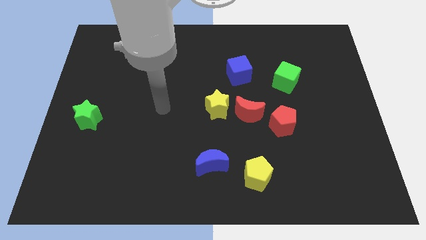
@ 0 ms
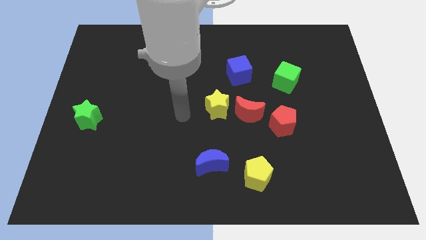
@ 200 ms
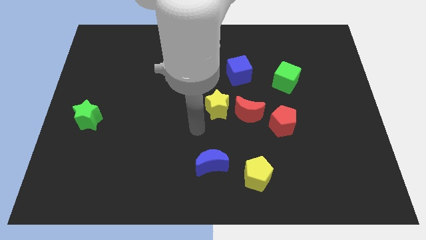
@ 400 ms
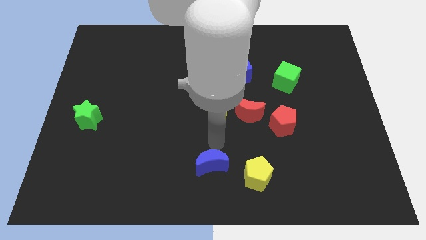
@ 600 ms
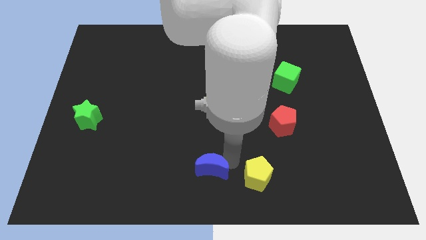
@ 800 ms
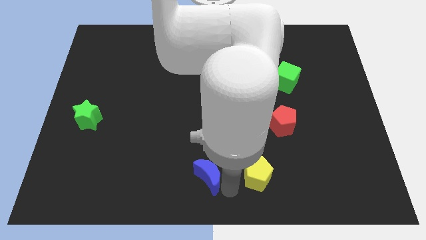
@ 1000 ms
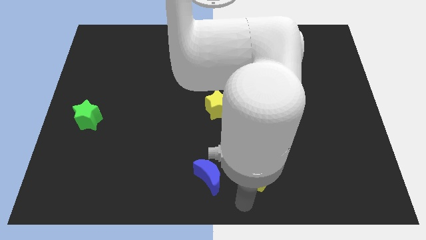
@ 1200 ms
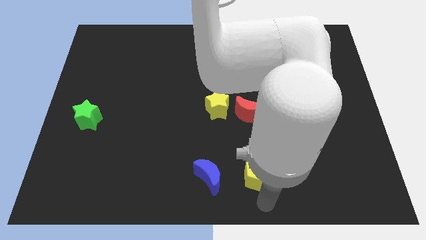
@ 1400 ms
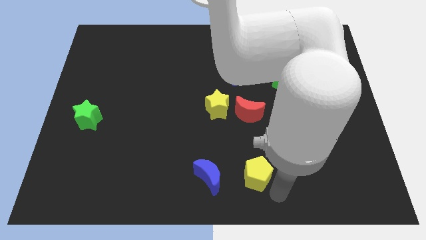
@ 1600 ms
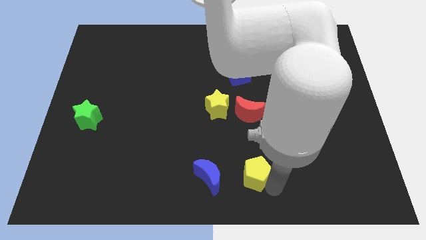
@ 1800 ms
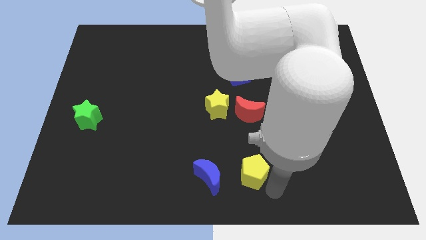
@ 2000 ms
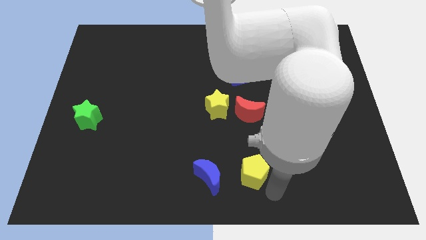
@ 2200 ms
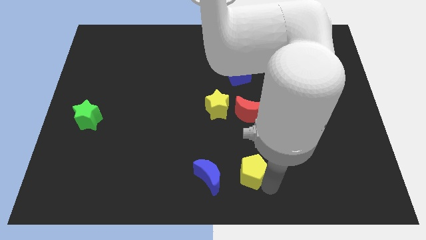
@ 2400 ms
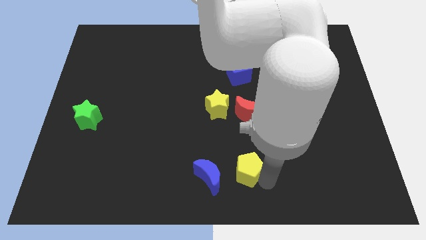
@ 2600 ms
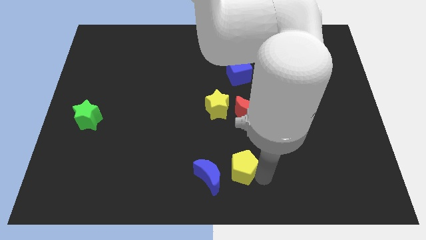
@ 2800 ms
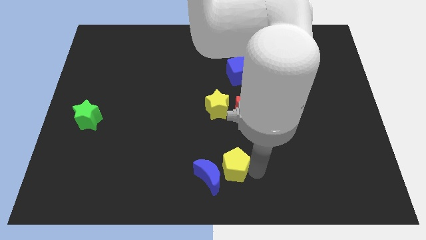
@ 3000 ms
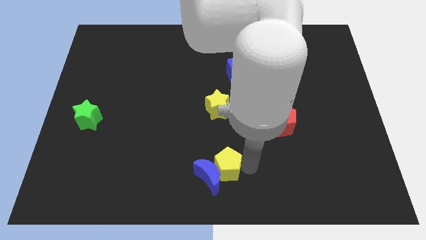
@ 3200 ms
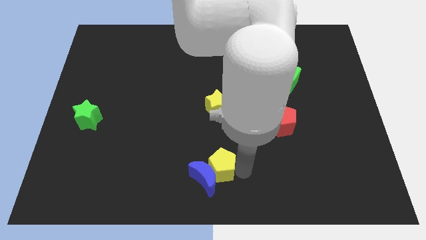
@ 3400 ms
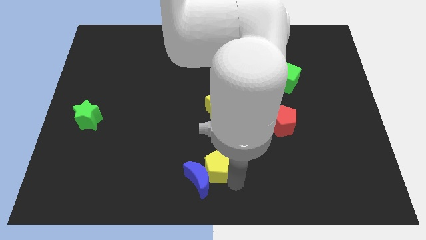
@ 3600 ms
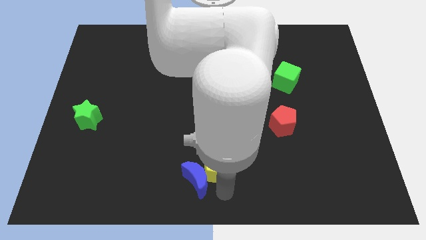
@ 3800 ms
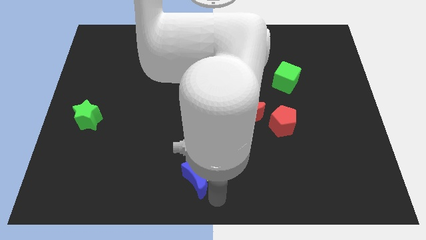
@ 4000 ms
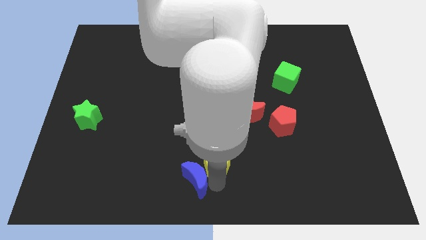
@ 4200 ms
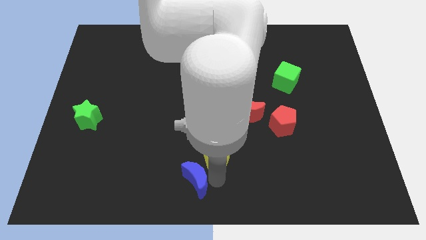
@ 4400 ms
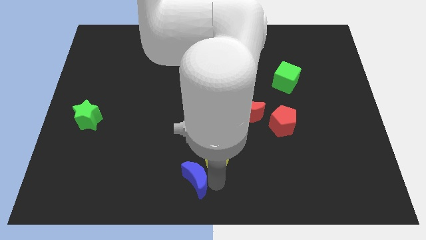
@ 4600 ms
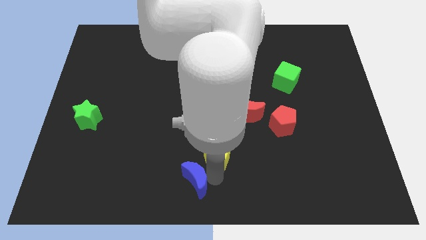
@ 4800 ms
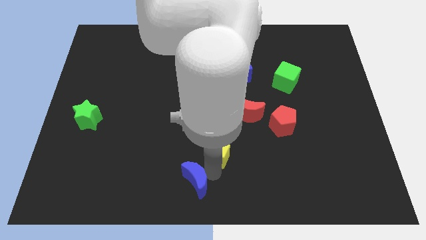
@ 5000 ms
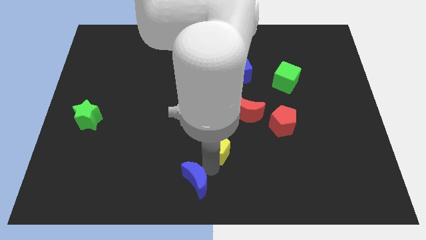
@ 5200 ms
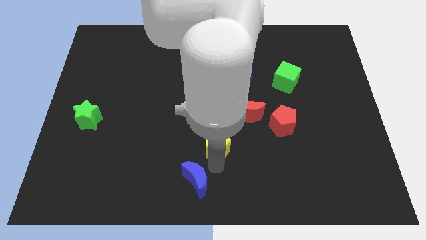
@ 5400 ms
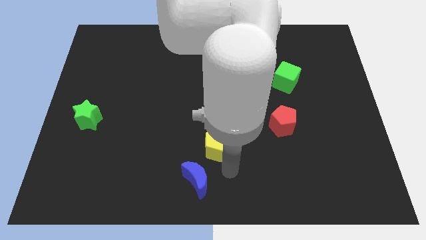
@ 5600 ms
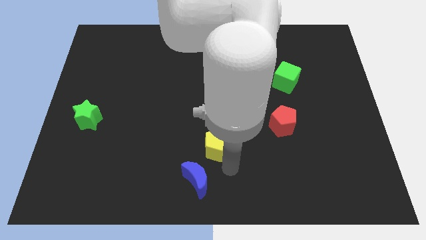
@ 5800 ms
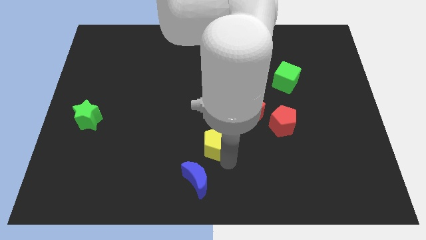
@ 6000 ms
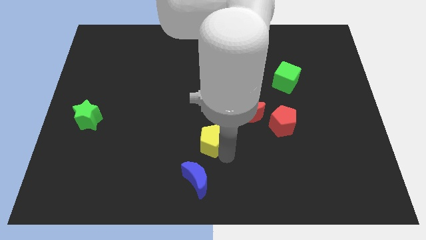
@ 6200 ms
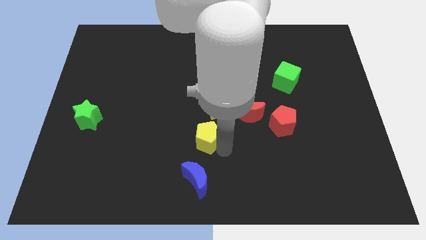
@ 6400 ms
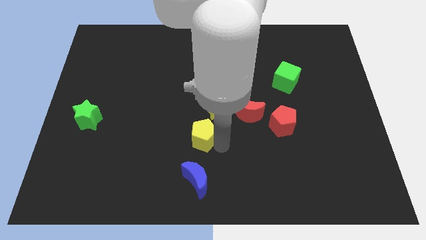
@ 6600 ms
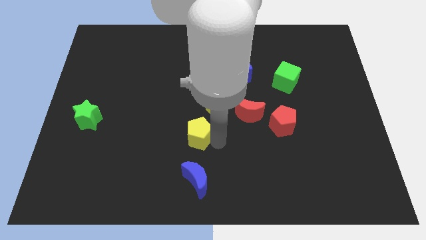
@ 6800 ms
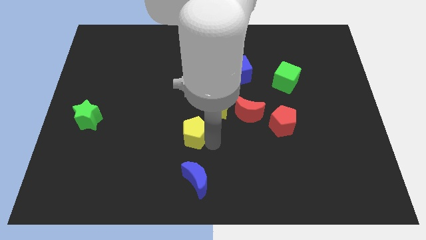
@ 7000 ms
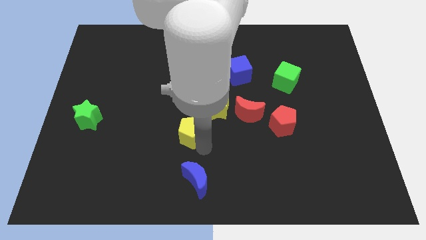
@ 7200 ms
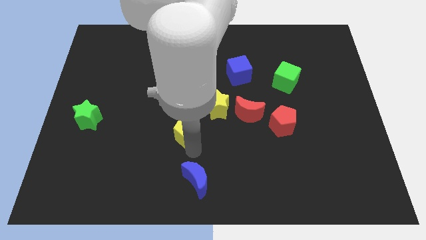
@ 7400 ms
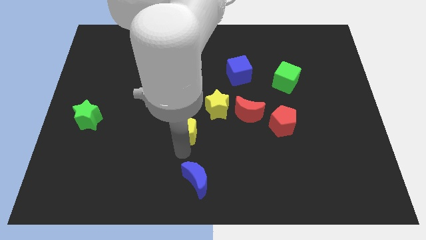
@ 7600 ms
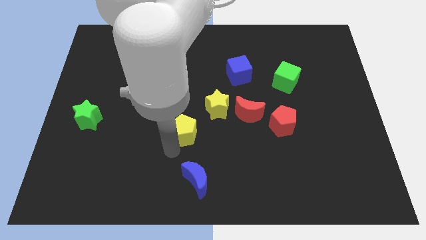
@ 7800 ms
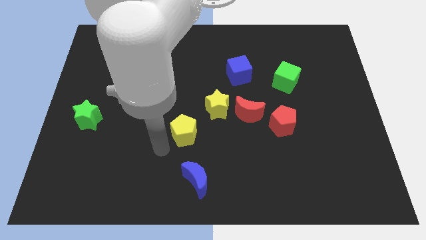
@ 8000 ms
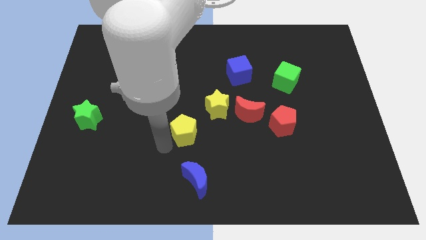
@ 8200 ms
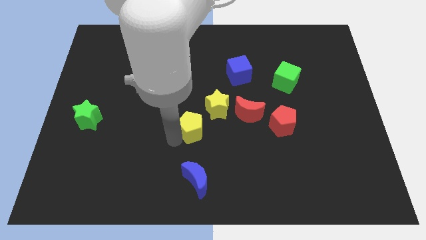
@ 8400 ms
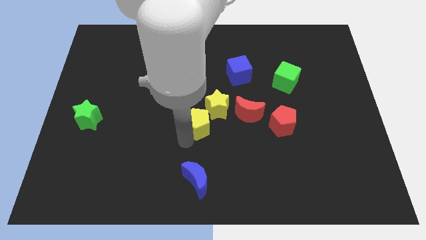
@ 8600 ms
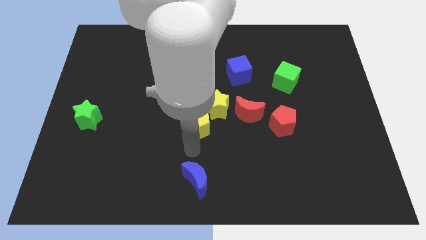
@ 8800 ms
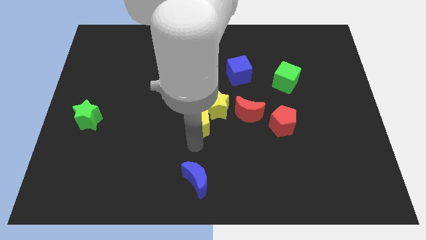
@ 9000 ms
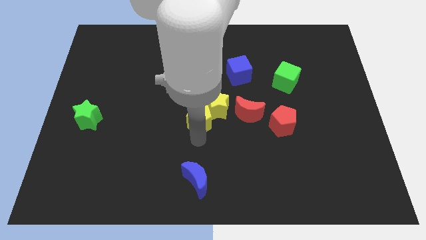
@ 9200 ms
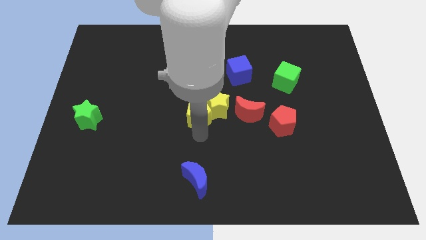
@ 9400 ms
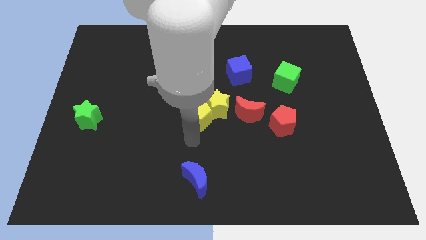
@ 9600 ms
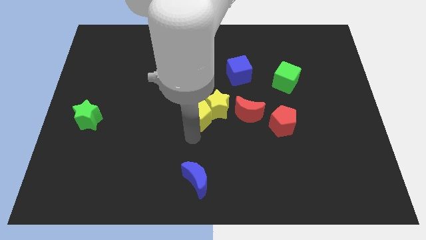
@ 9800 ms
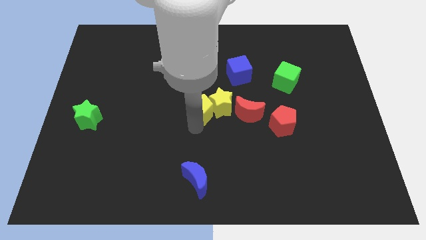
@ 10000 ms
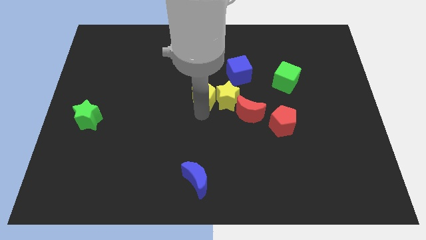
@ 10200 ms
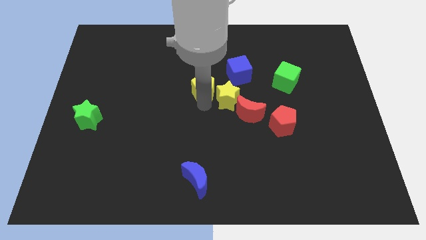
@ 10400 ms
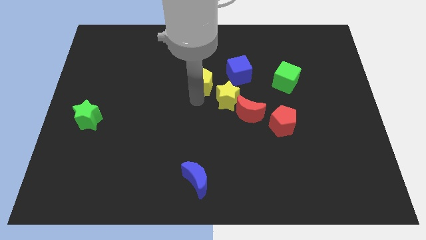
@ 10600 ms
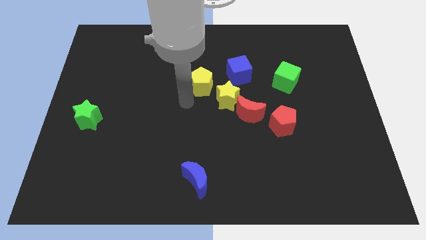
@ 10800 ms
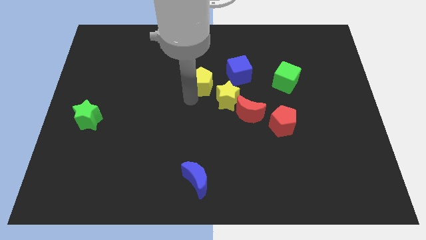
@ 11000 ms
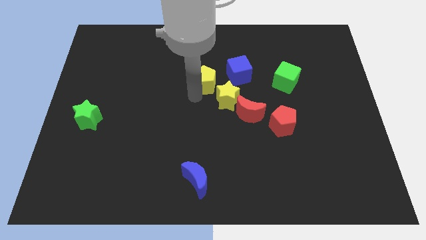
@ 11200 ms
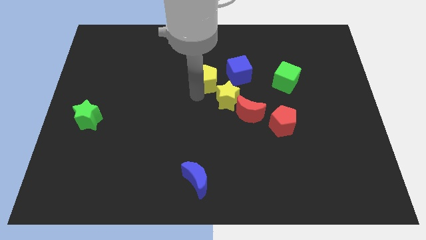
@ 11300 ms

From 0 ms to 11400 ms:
slide the yellow pentagon up

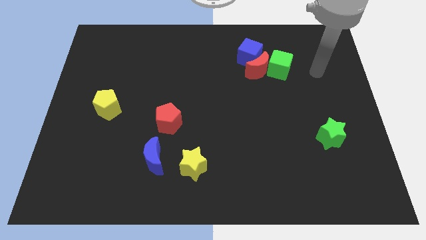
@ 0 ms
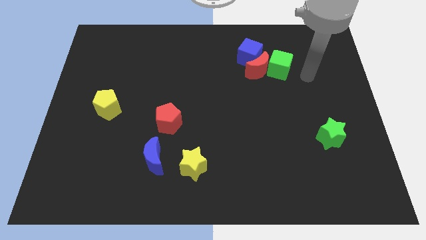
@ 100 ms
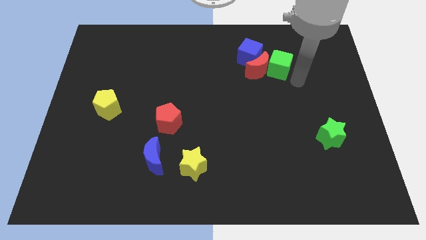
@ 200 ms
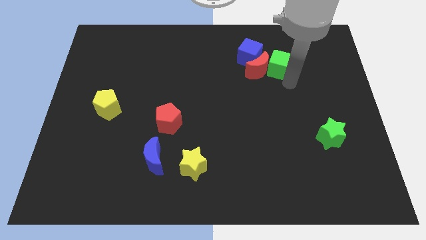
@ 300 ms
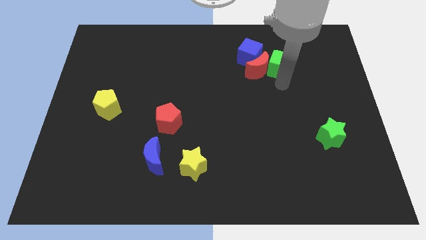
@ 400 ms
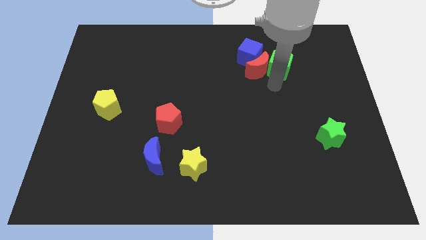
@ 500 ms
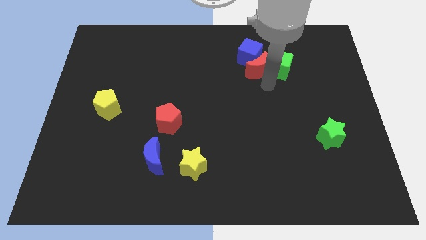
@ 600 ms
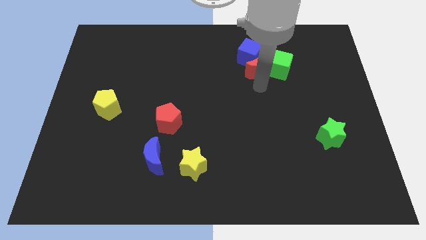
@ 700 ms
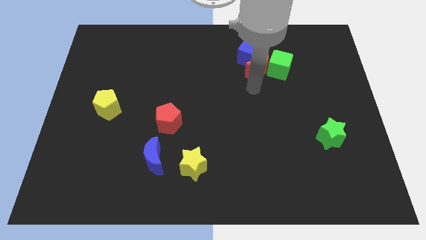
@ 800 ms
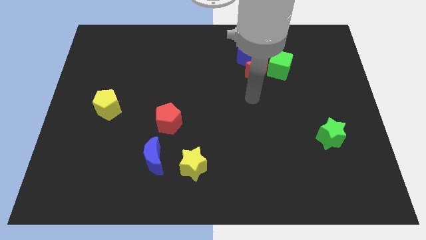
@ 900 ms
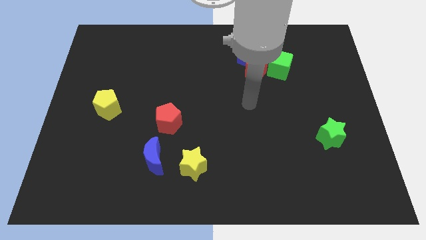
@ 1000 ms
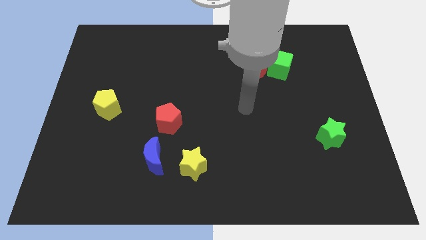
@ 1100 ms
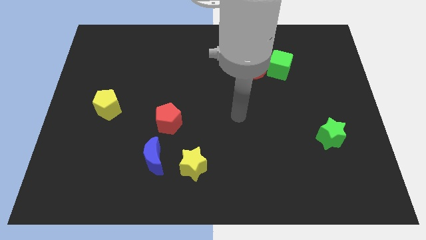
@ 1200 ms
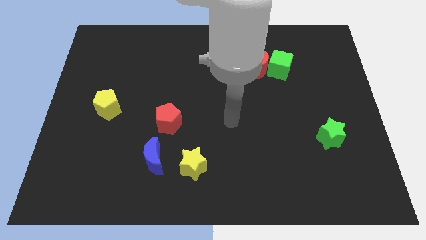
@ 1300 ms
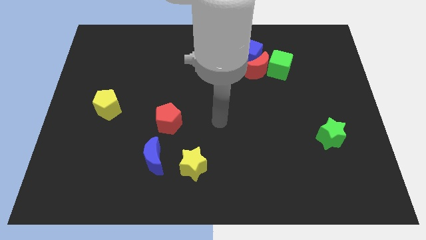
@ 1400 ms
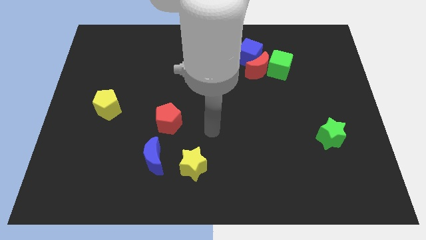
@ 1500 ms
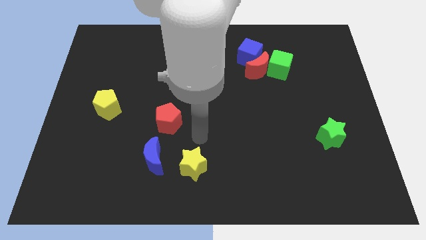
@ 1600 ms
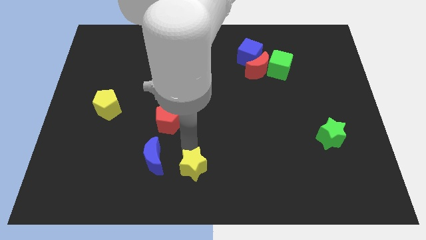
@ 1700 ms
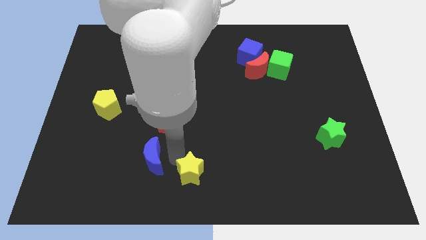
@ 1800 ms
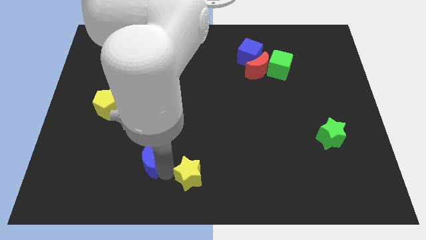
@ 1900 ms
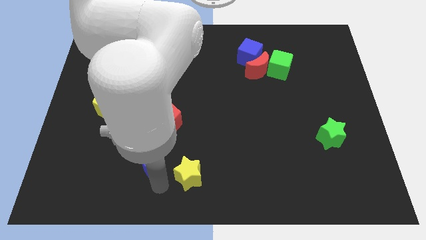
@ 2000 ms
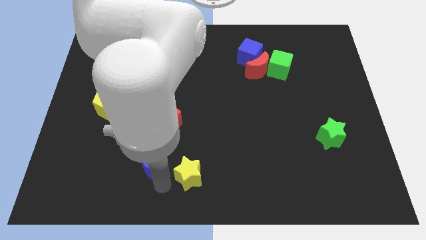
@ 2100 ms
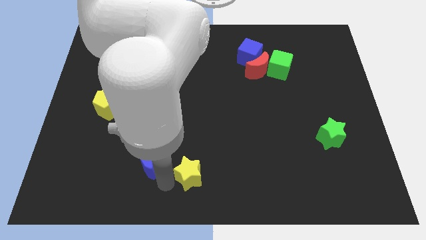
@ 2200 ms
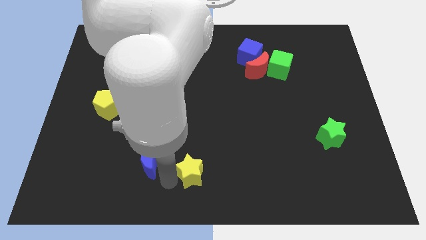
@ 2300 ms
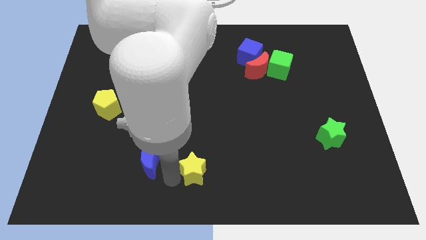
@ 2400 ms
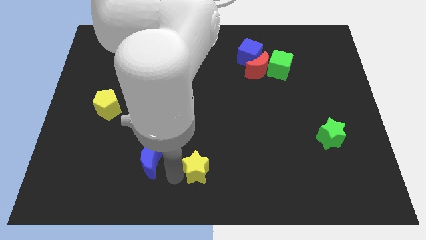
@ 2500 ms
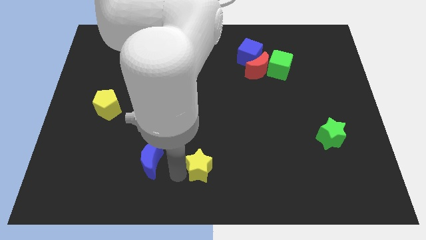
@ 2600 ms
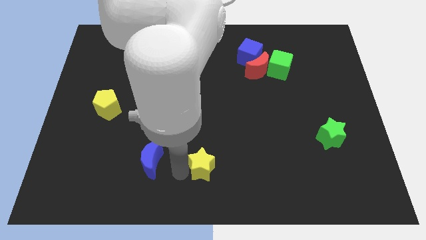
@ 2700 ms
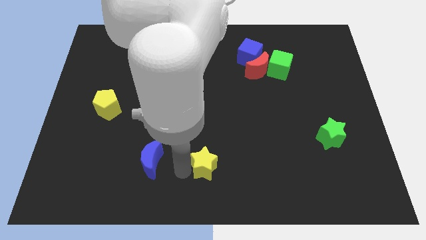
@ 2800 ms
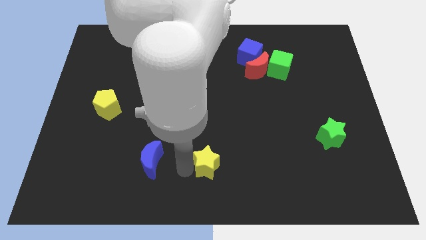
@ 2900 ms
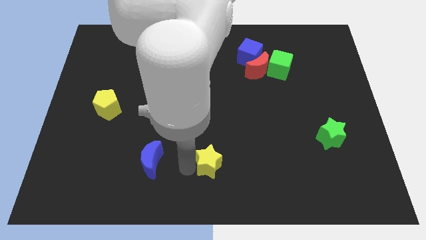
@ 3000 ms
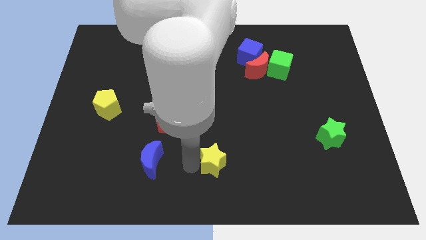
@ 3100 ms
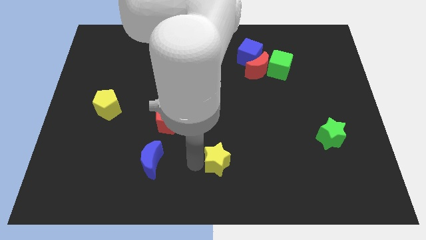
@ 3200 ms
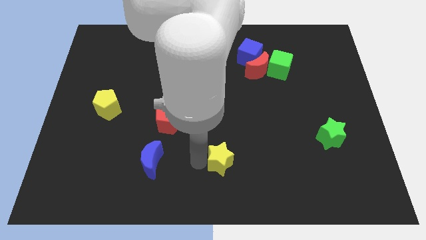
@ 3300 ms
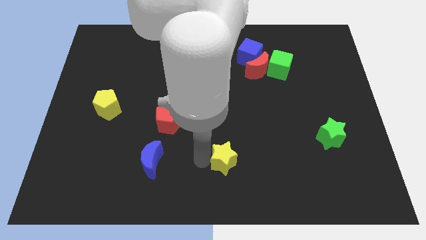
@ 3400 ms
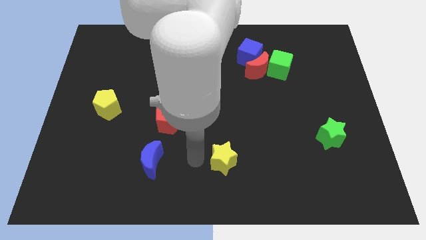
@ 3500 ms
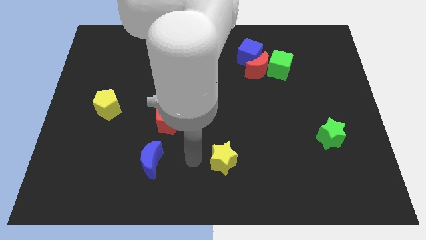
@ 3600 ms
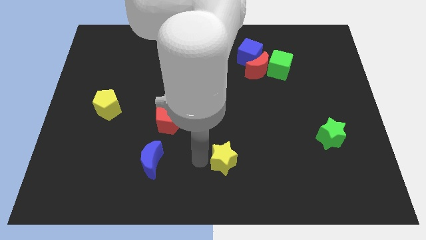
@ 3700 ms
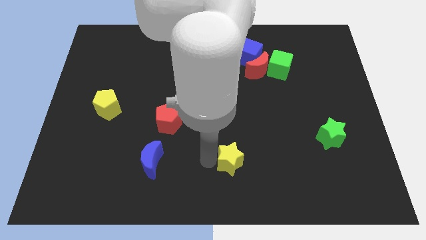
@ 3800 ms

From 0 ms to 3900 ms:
slightly slide the yellow star to the right
